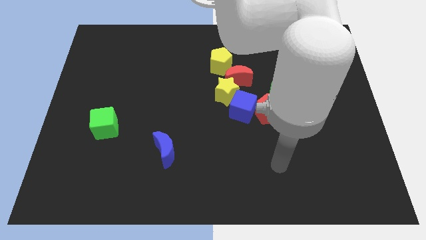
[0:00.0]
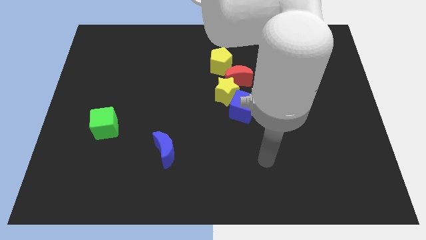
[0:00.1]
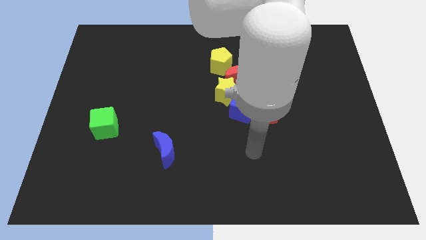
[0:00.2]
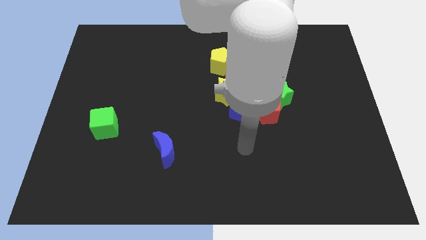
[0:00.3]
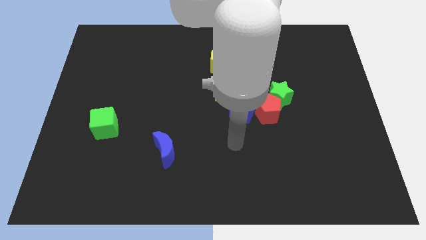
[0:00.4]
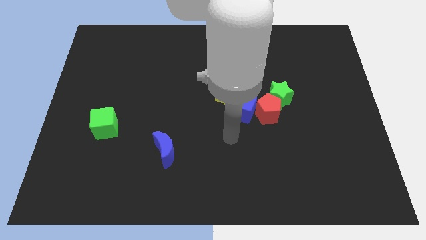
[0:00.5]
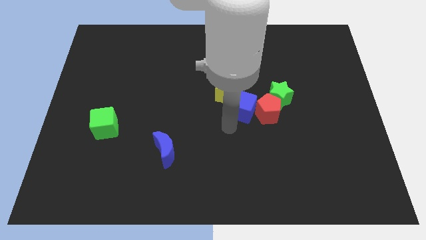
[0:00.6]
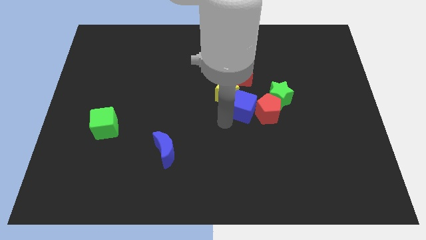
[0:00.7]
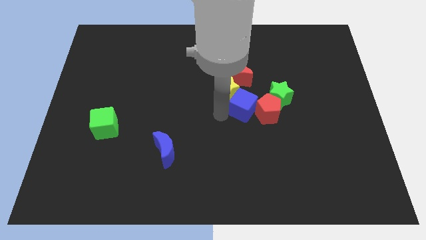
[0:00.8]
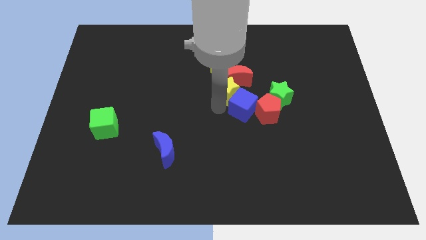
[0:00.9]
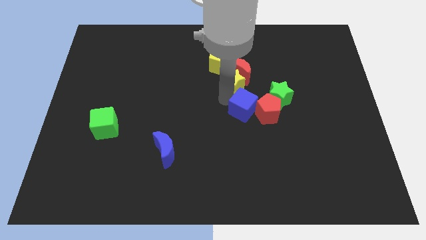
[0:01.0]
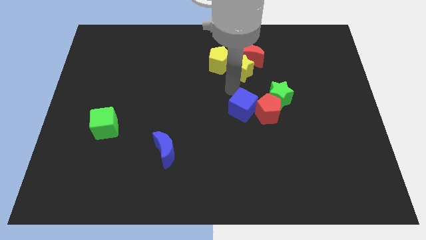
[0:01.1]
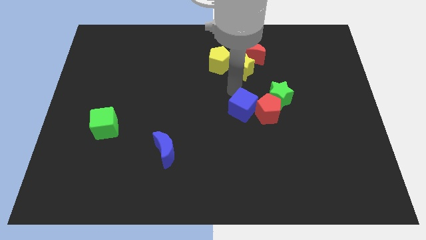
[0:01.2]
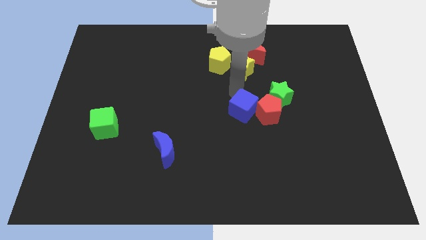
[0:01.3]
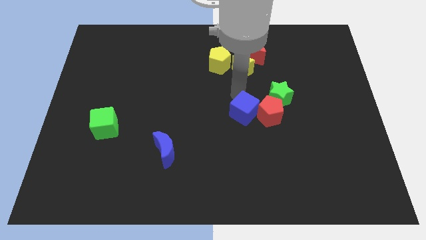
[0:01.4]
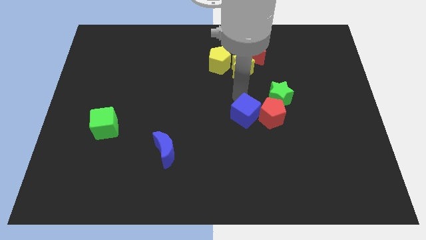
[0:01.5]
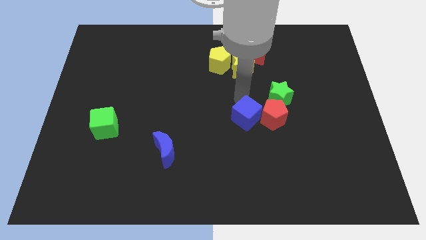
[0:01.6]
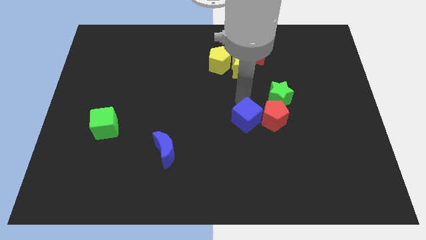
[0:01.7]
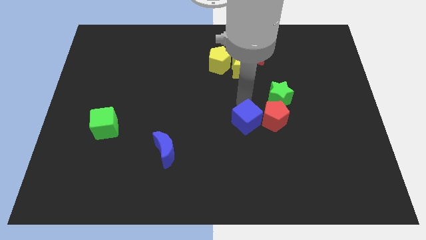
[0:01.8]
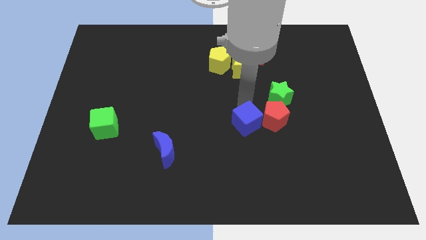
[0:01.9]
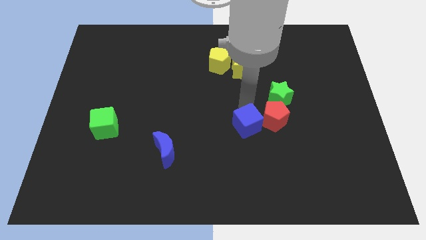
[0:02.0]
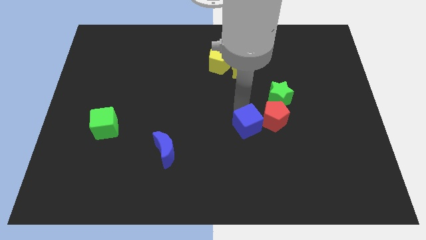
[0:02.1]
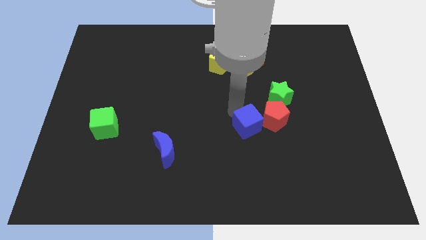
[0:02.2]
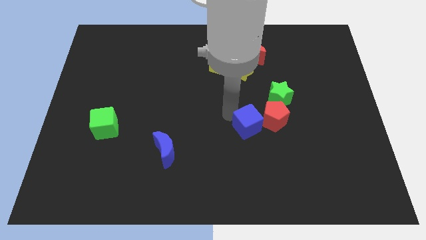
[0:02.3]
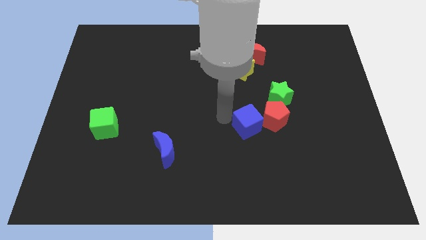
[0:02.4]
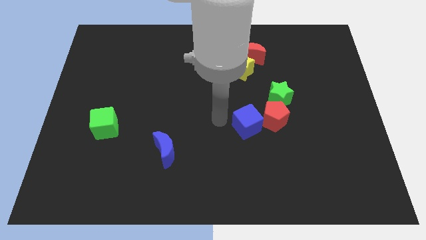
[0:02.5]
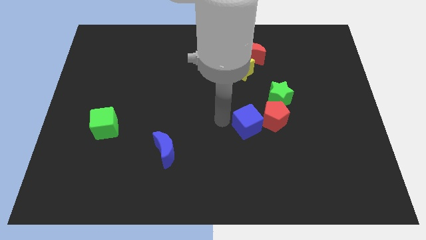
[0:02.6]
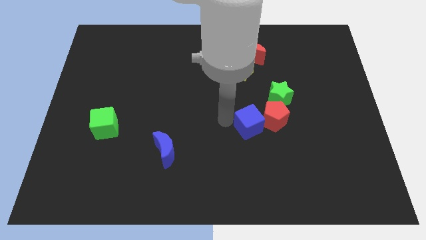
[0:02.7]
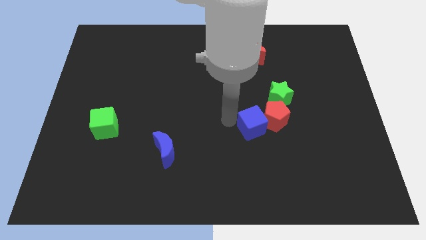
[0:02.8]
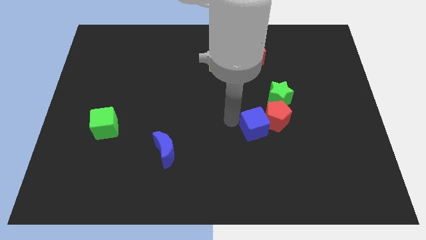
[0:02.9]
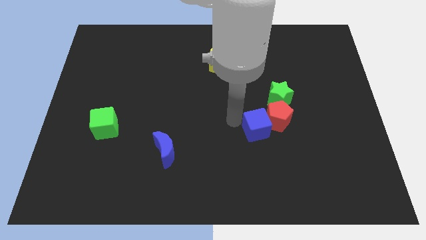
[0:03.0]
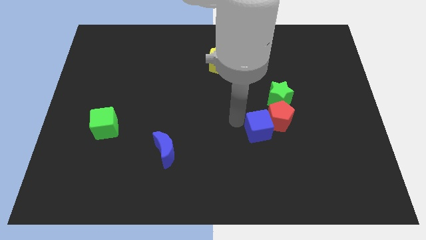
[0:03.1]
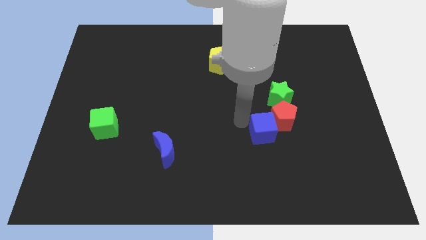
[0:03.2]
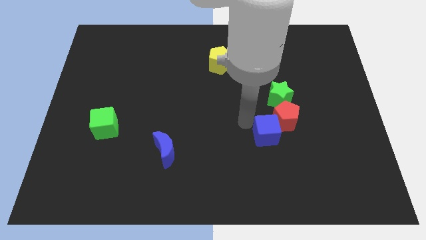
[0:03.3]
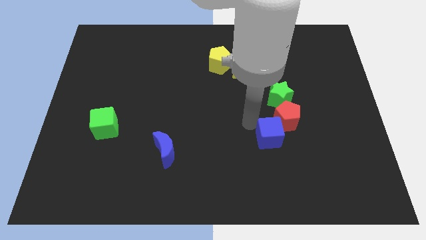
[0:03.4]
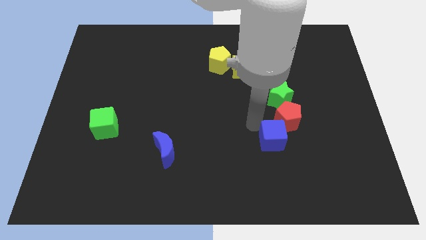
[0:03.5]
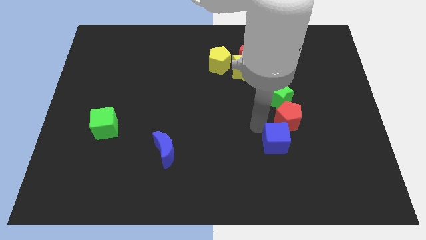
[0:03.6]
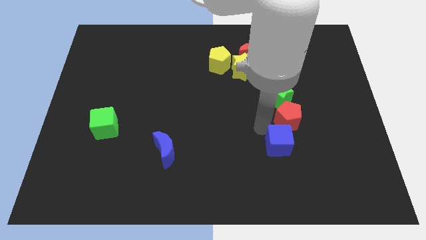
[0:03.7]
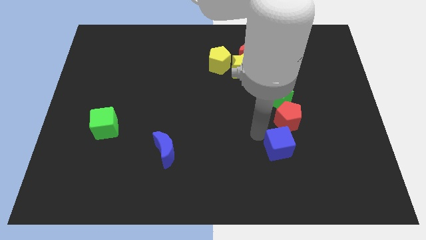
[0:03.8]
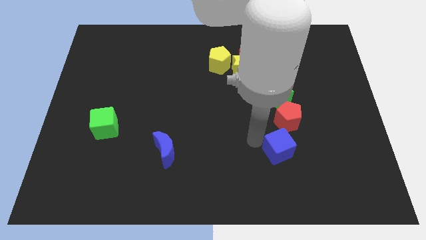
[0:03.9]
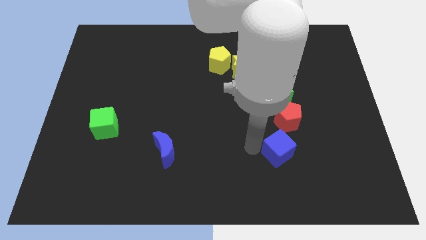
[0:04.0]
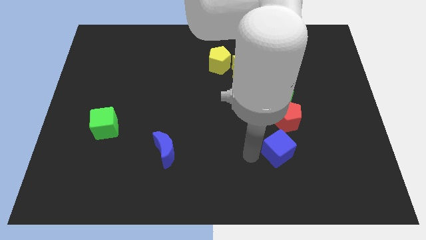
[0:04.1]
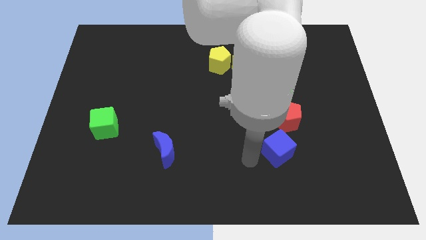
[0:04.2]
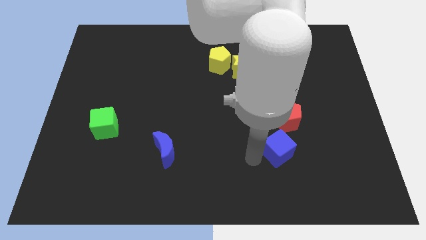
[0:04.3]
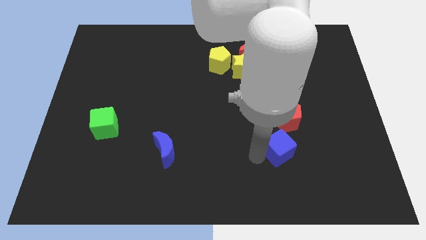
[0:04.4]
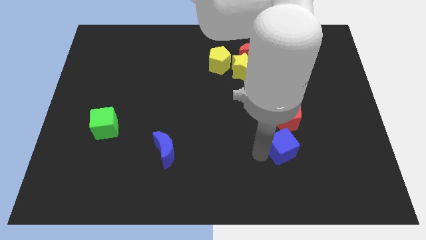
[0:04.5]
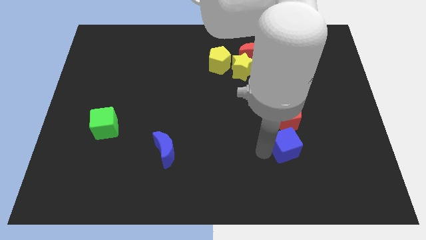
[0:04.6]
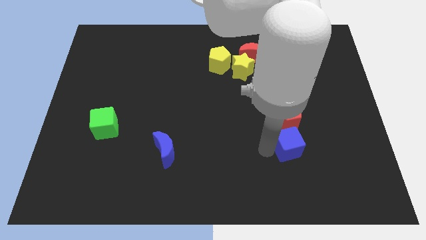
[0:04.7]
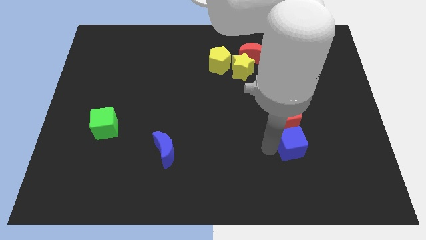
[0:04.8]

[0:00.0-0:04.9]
put the blue cube to the bottom right of the red pentagon

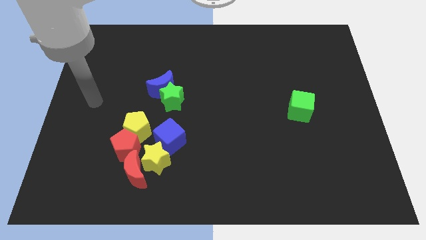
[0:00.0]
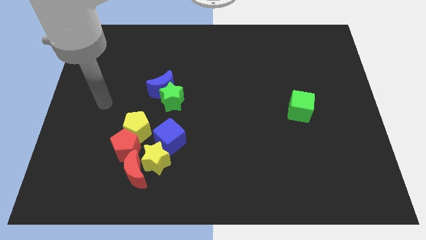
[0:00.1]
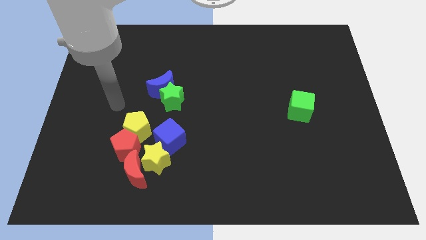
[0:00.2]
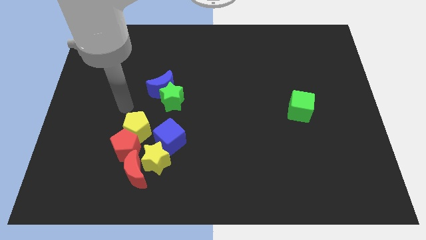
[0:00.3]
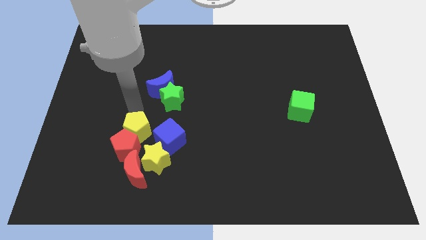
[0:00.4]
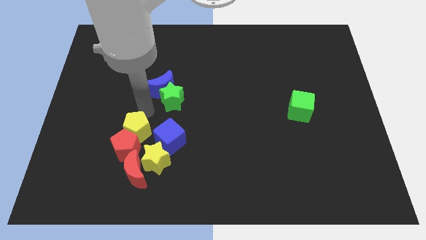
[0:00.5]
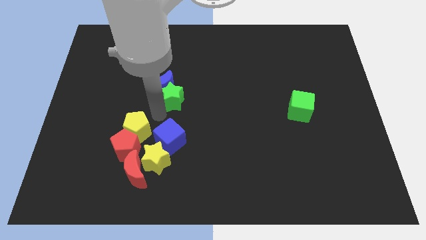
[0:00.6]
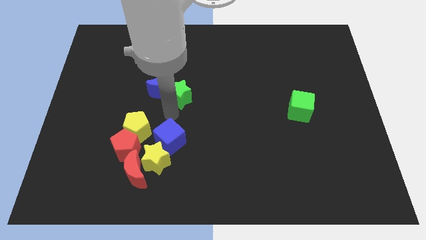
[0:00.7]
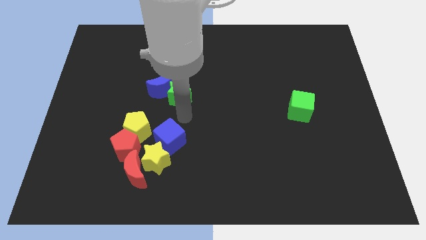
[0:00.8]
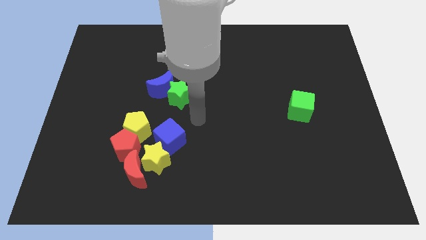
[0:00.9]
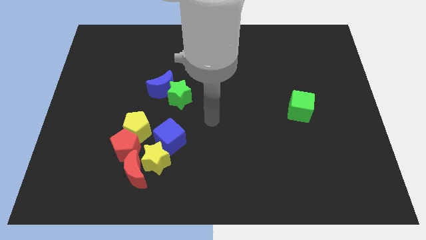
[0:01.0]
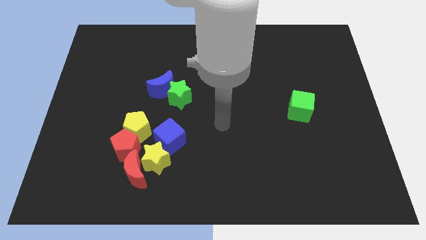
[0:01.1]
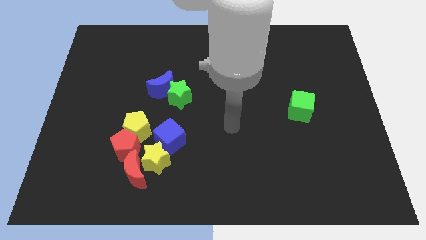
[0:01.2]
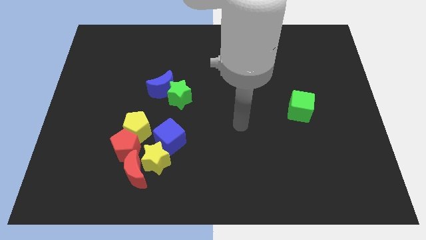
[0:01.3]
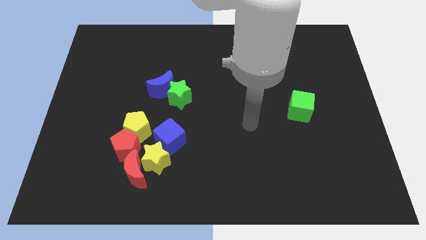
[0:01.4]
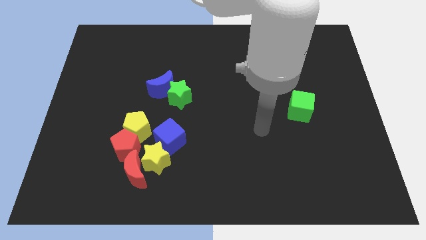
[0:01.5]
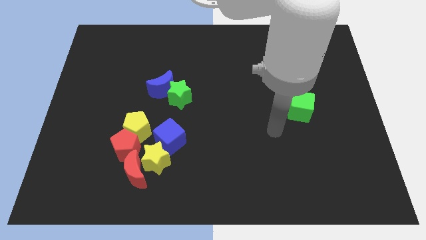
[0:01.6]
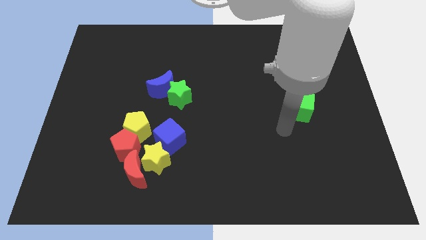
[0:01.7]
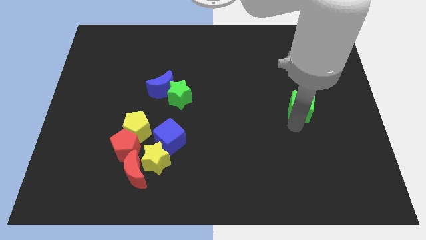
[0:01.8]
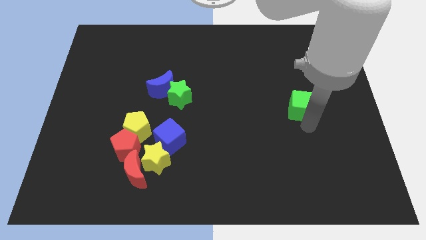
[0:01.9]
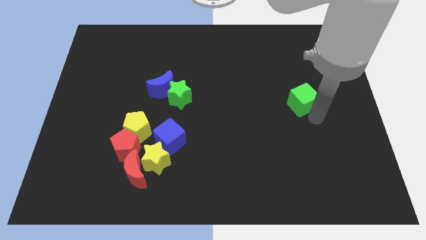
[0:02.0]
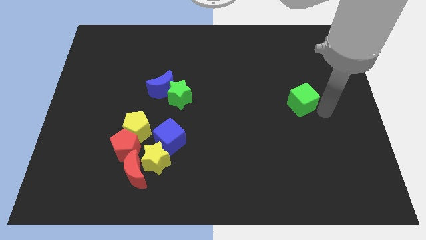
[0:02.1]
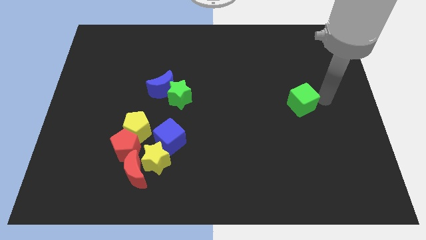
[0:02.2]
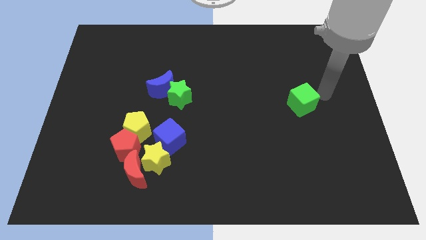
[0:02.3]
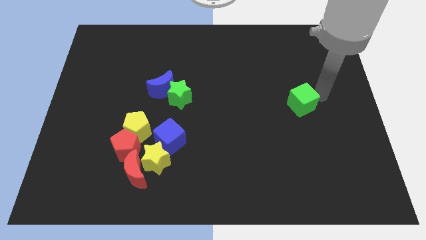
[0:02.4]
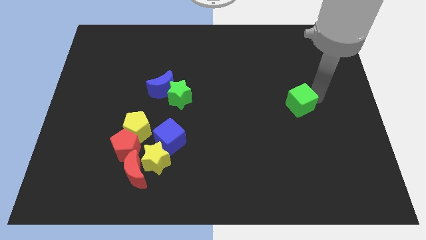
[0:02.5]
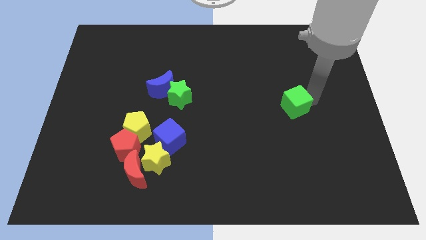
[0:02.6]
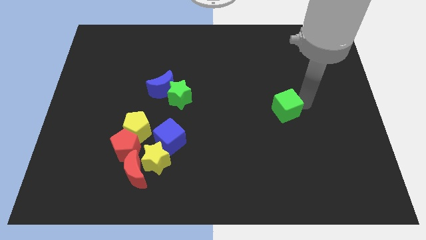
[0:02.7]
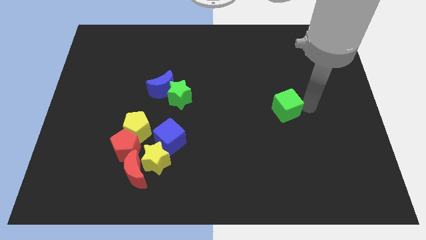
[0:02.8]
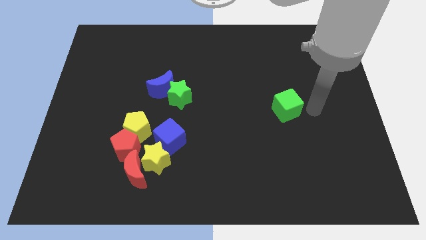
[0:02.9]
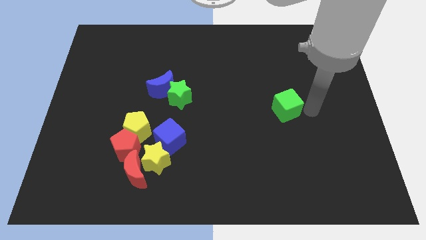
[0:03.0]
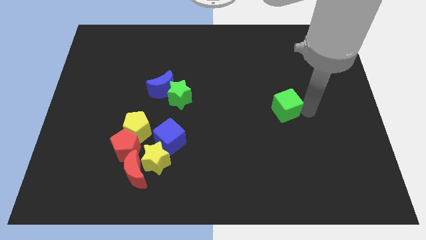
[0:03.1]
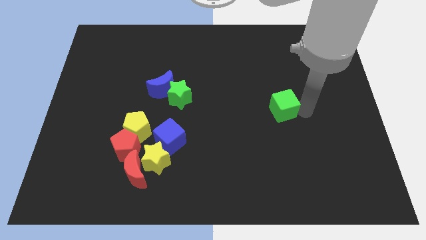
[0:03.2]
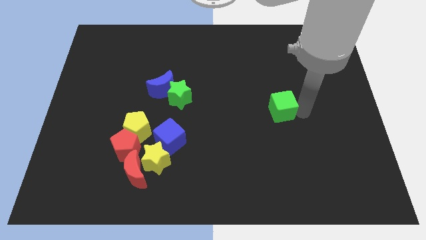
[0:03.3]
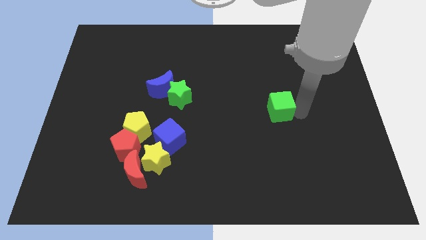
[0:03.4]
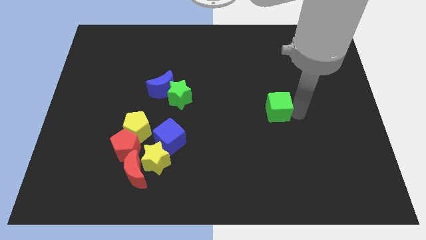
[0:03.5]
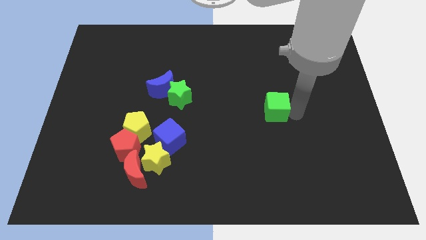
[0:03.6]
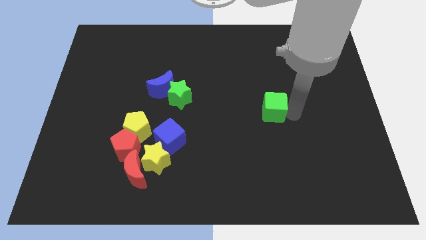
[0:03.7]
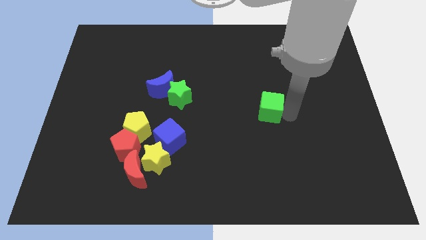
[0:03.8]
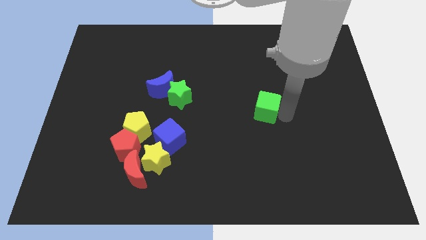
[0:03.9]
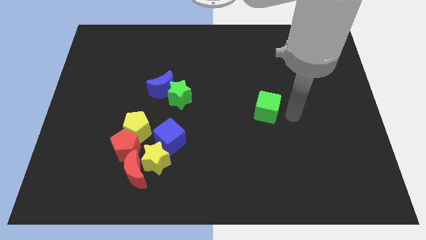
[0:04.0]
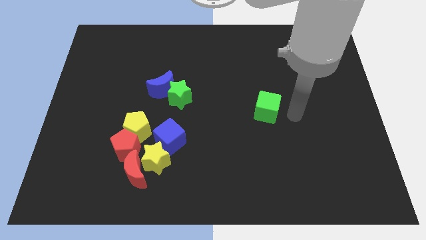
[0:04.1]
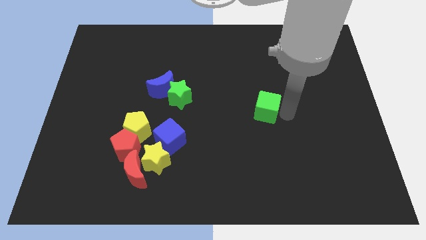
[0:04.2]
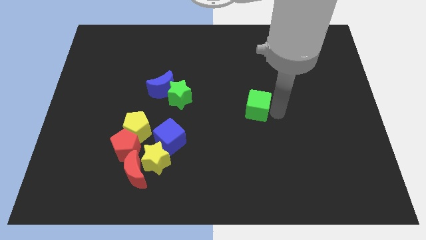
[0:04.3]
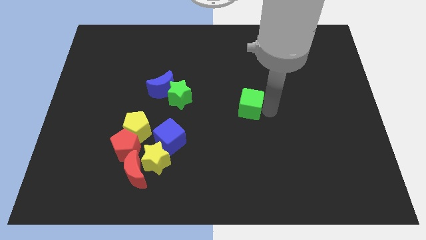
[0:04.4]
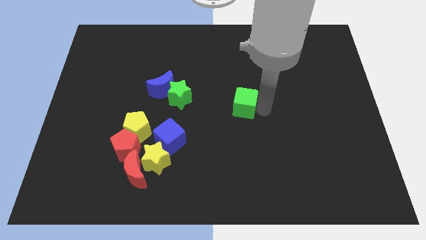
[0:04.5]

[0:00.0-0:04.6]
move the green cube just right of the green star
